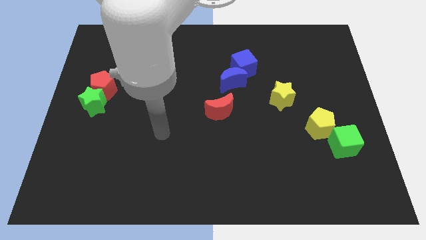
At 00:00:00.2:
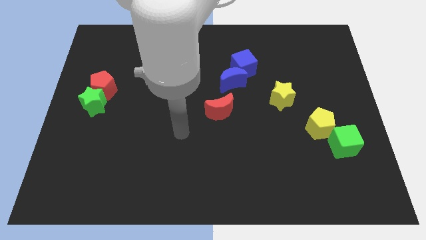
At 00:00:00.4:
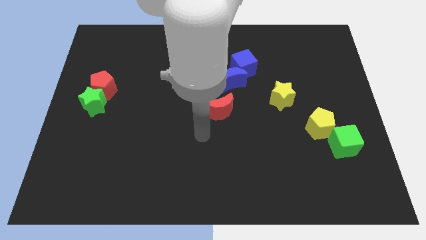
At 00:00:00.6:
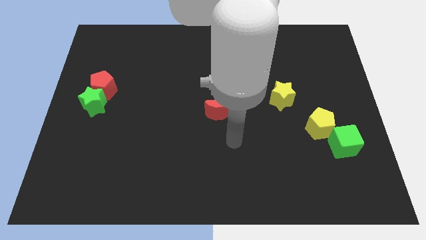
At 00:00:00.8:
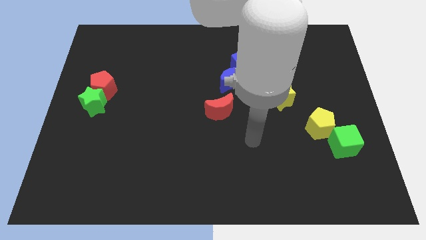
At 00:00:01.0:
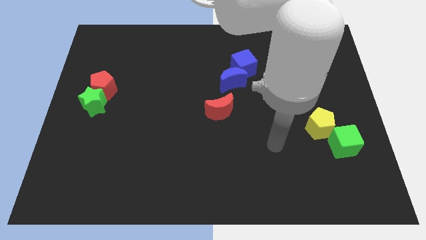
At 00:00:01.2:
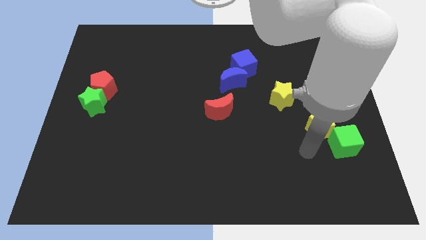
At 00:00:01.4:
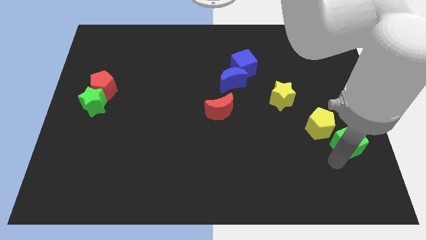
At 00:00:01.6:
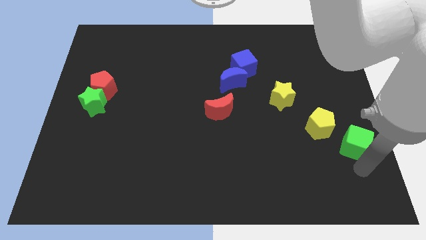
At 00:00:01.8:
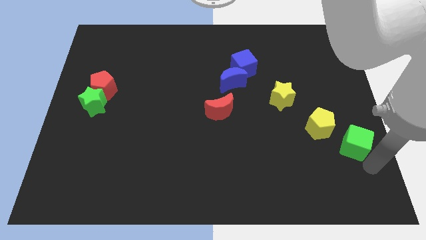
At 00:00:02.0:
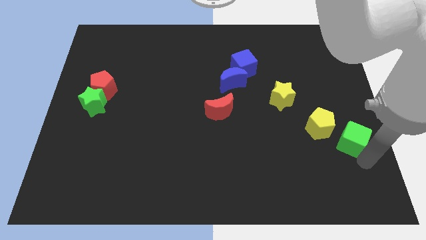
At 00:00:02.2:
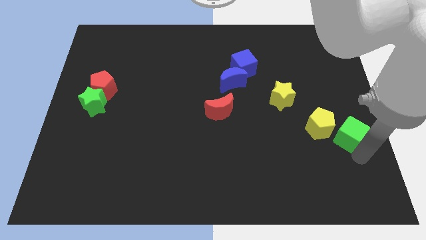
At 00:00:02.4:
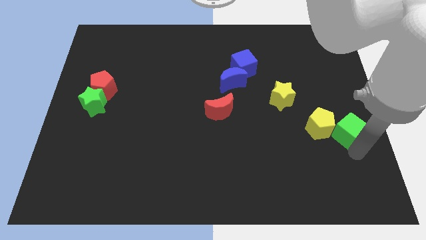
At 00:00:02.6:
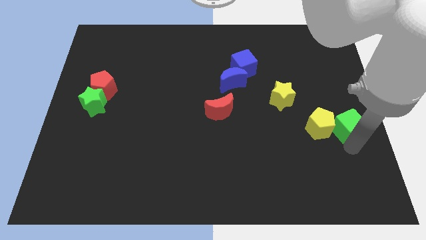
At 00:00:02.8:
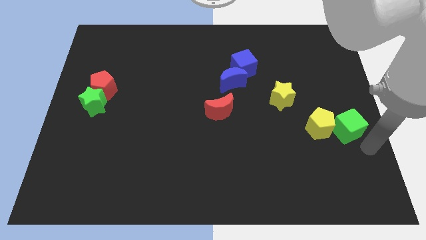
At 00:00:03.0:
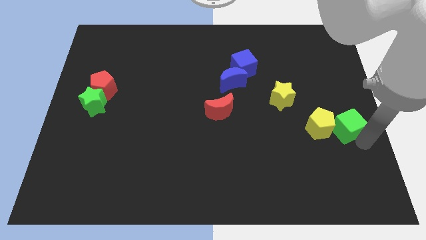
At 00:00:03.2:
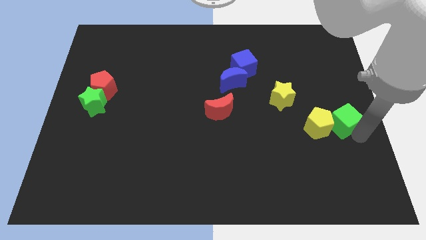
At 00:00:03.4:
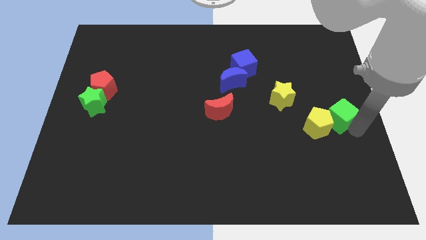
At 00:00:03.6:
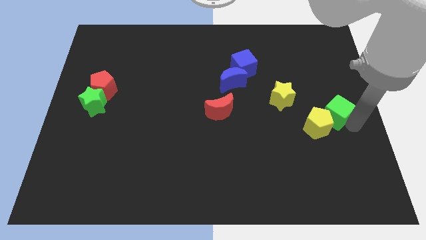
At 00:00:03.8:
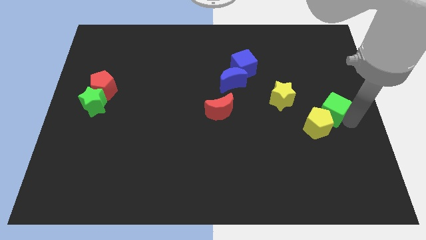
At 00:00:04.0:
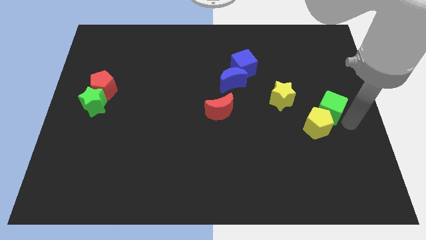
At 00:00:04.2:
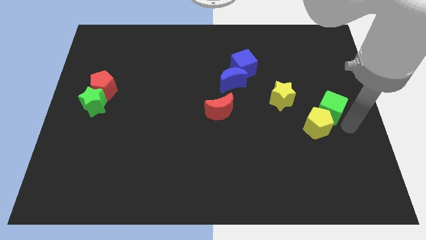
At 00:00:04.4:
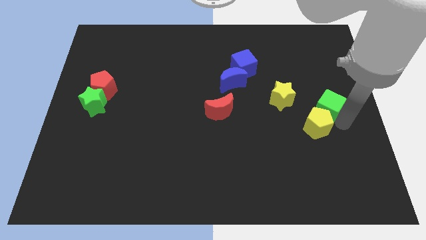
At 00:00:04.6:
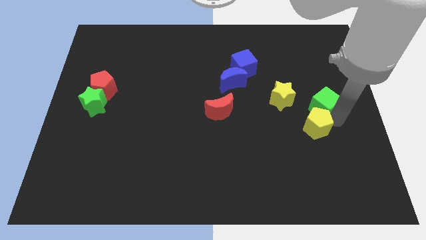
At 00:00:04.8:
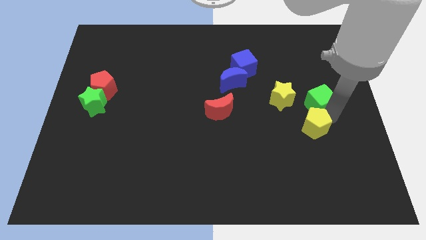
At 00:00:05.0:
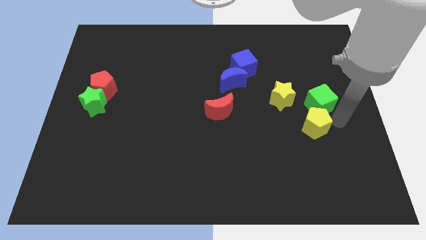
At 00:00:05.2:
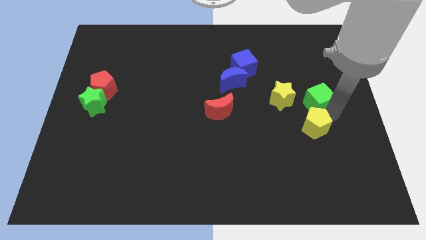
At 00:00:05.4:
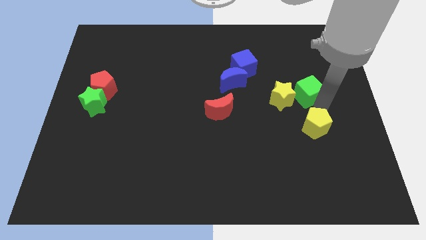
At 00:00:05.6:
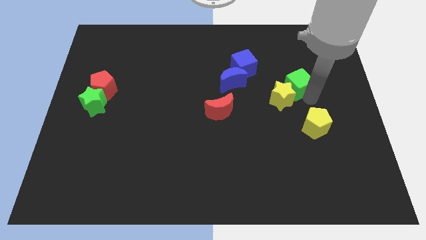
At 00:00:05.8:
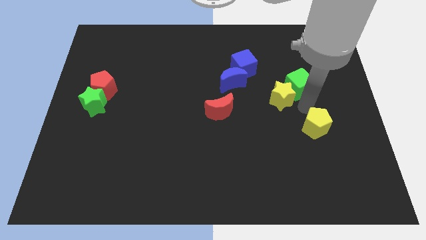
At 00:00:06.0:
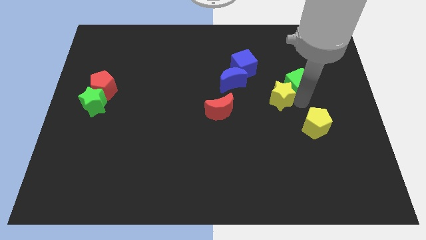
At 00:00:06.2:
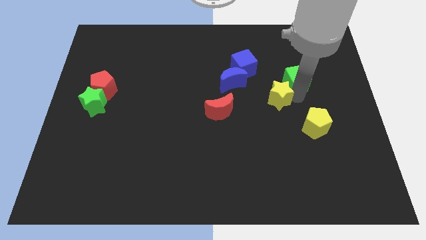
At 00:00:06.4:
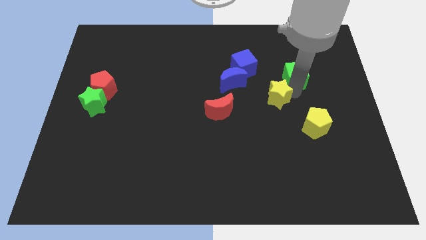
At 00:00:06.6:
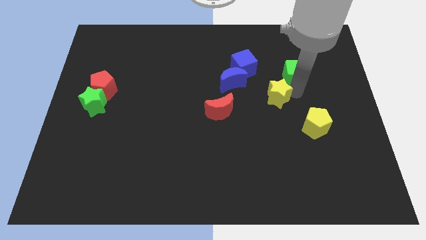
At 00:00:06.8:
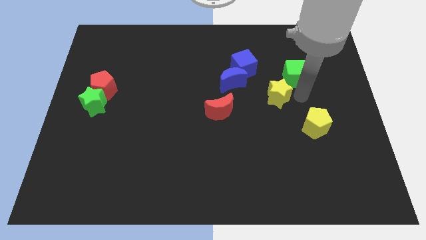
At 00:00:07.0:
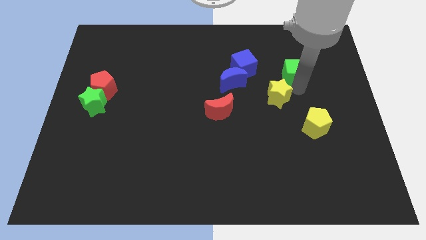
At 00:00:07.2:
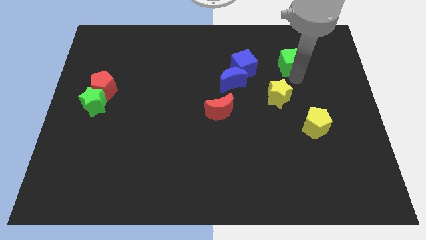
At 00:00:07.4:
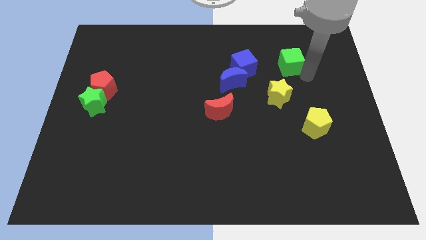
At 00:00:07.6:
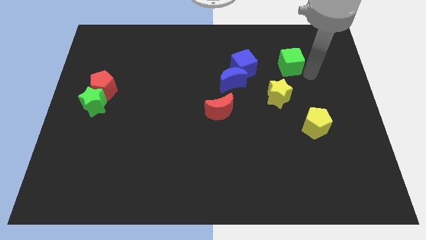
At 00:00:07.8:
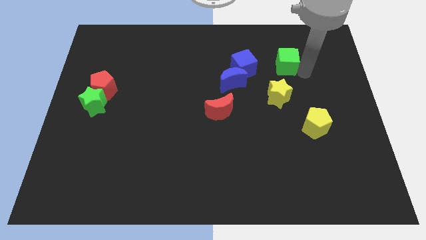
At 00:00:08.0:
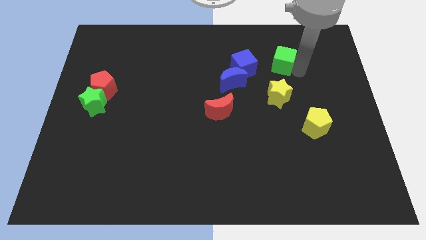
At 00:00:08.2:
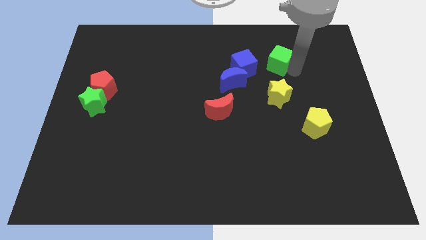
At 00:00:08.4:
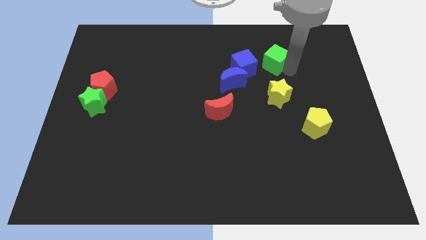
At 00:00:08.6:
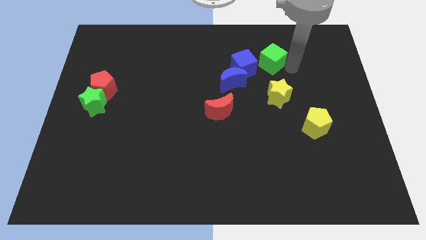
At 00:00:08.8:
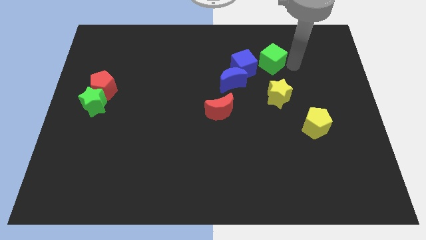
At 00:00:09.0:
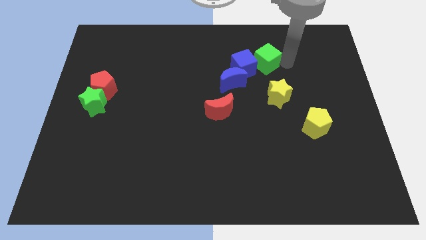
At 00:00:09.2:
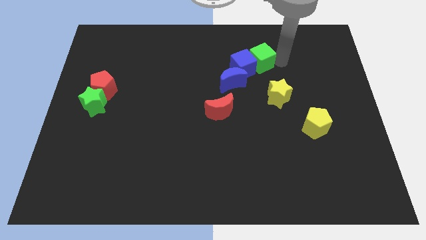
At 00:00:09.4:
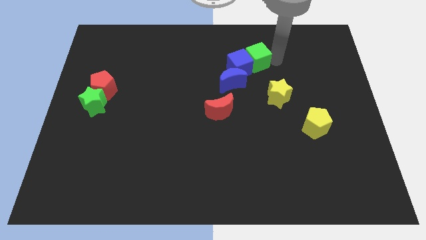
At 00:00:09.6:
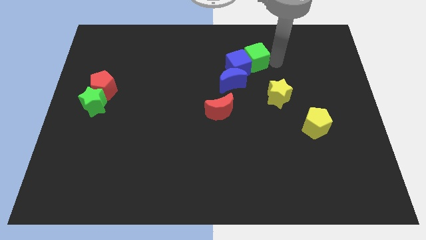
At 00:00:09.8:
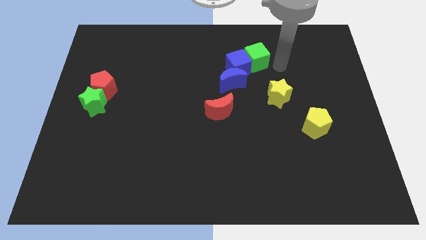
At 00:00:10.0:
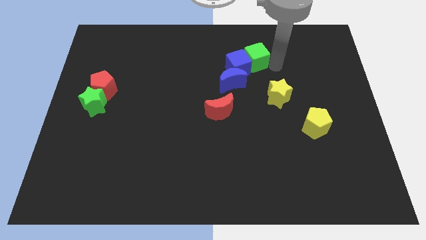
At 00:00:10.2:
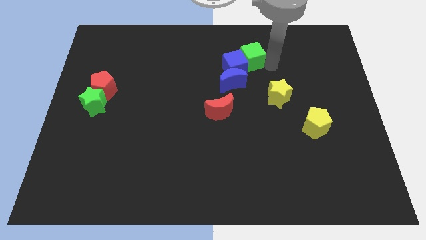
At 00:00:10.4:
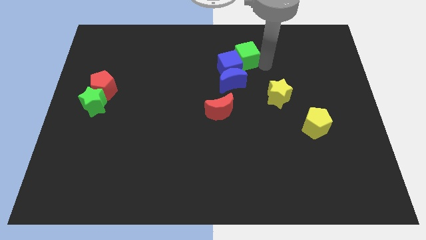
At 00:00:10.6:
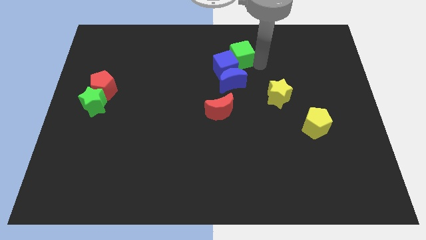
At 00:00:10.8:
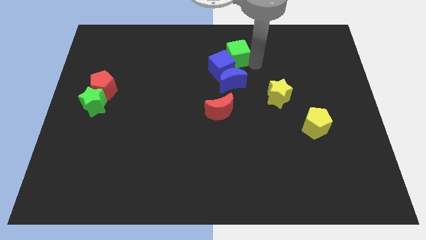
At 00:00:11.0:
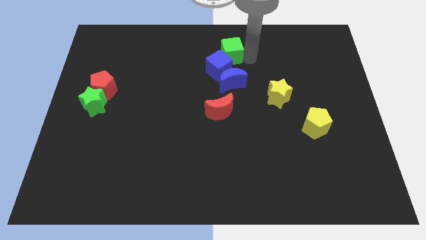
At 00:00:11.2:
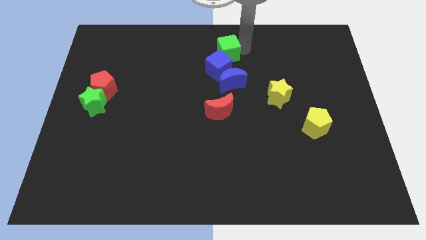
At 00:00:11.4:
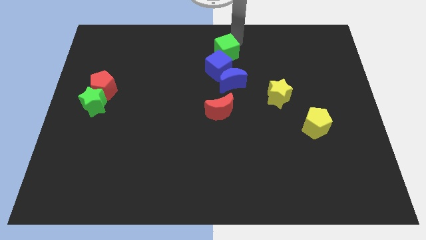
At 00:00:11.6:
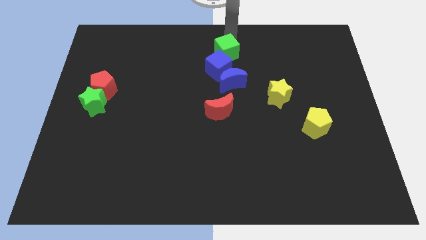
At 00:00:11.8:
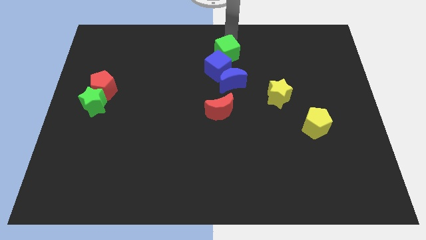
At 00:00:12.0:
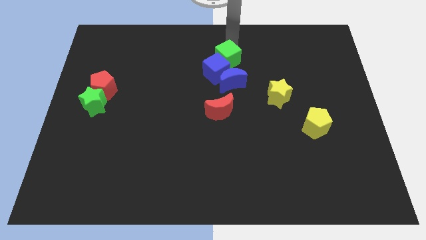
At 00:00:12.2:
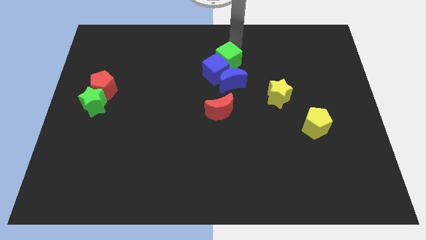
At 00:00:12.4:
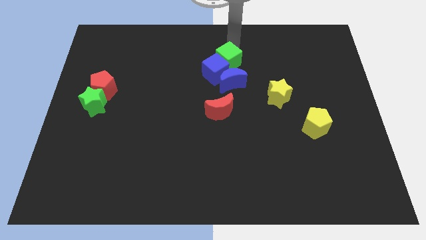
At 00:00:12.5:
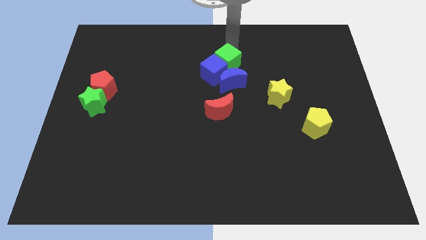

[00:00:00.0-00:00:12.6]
slide the green cube to the top of the red moon
